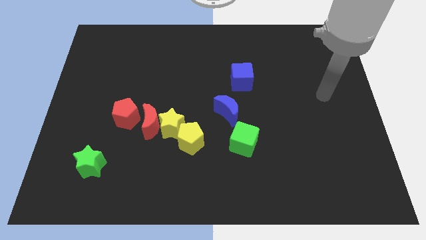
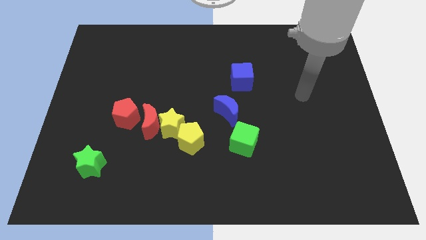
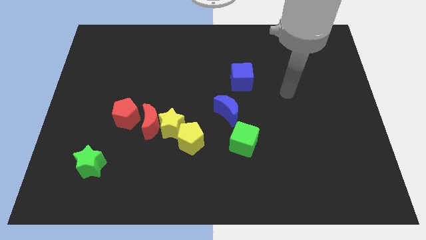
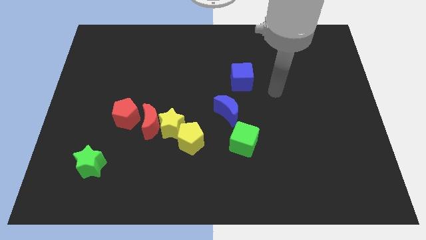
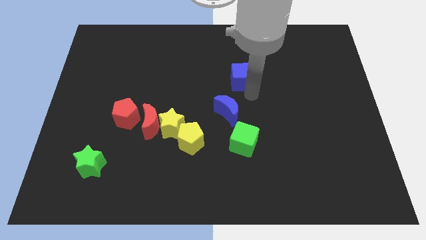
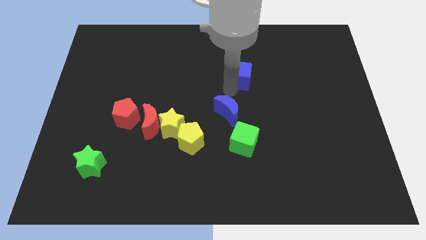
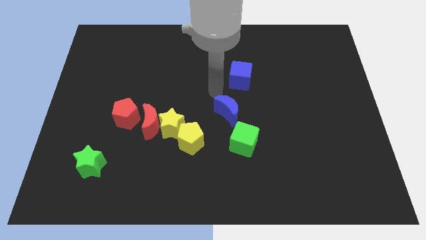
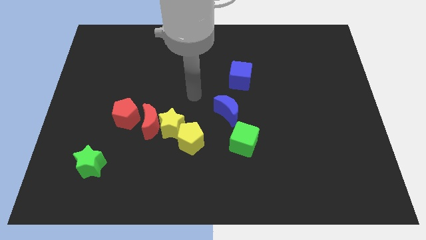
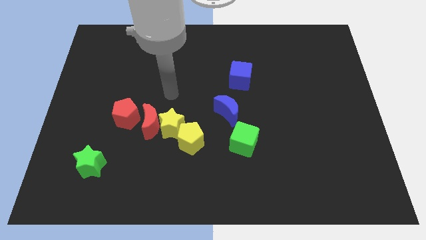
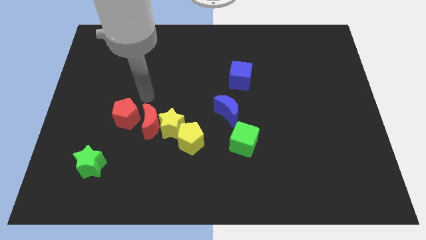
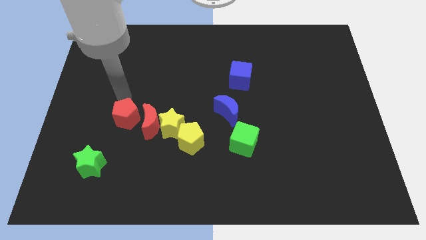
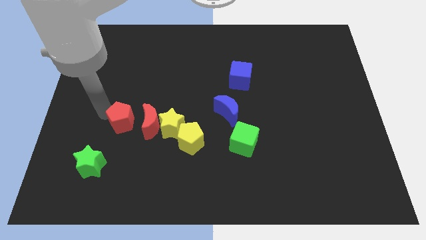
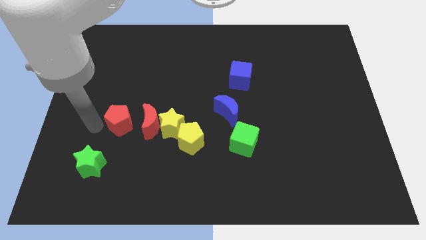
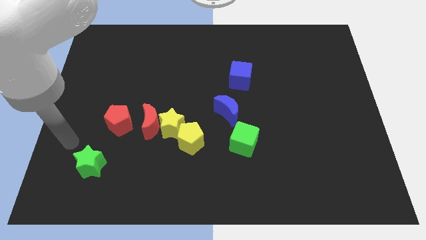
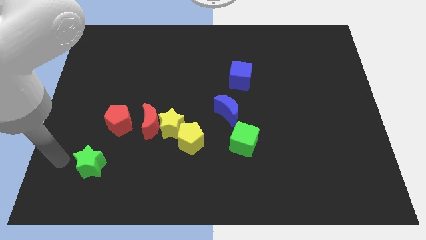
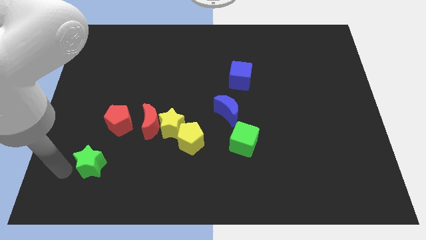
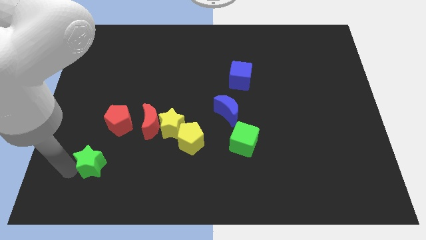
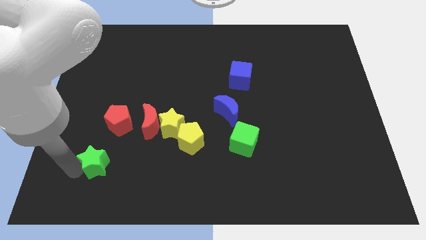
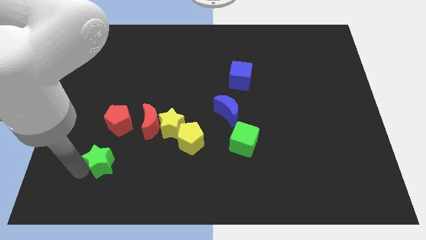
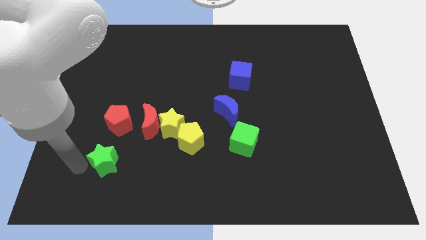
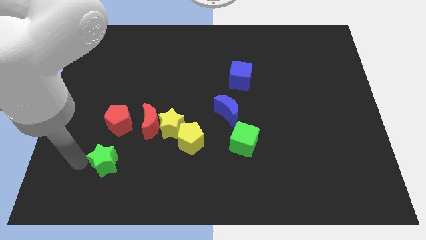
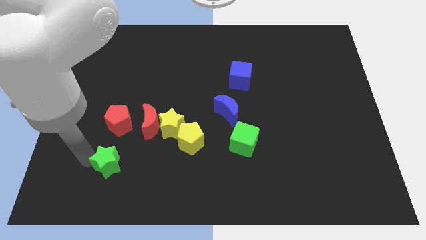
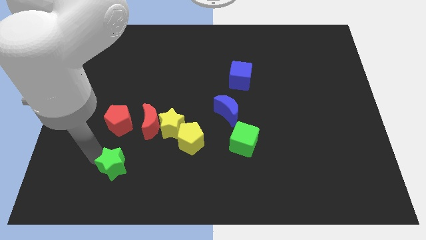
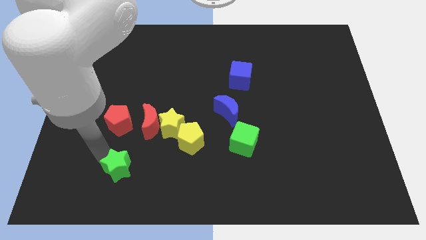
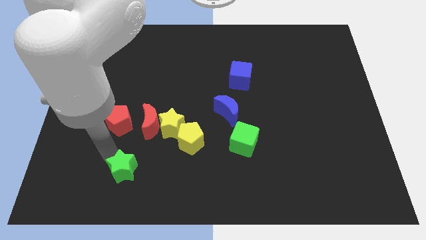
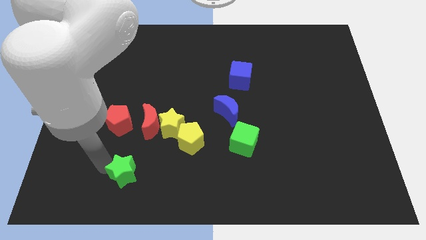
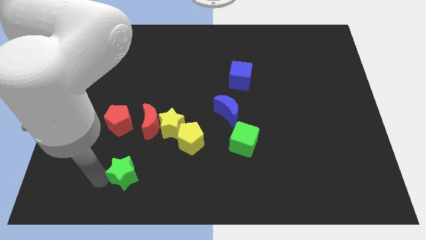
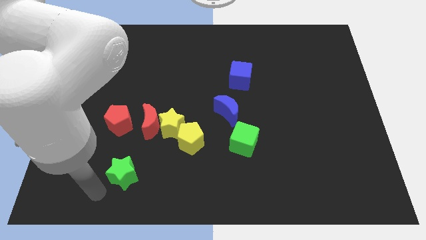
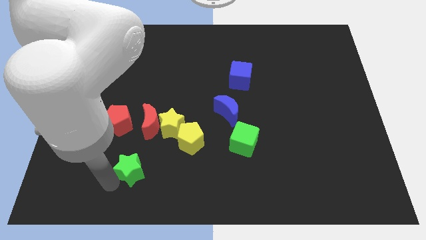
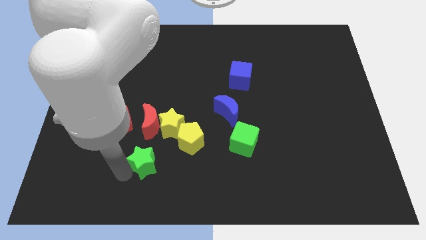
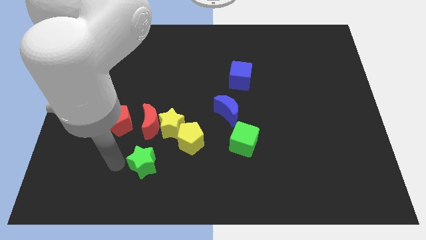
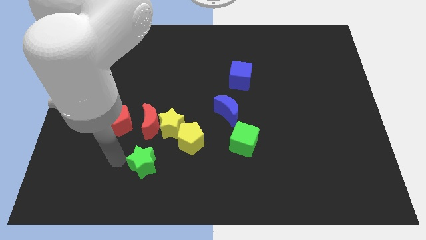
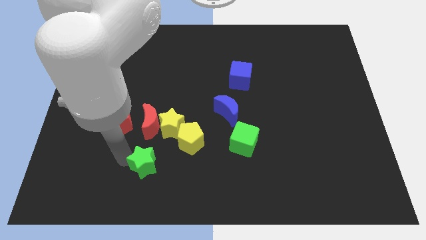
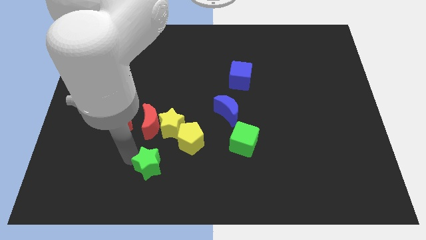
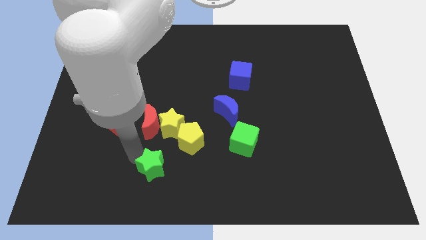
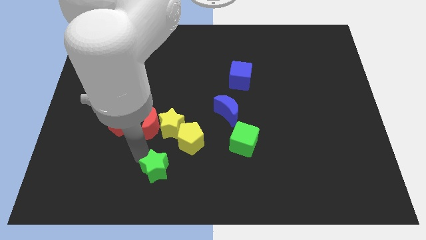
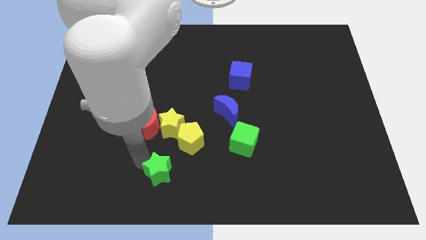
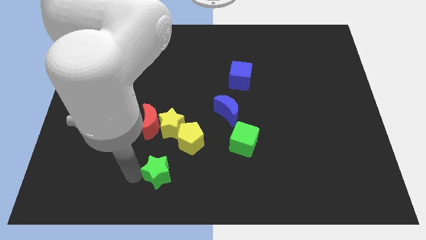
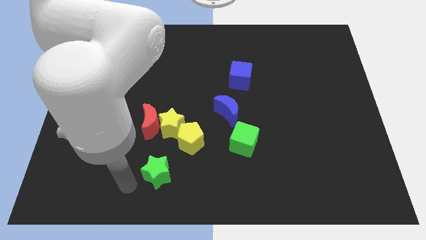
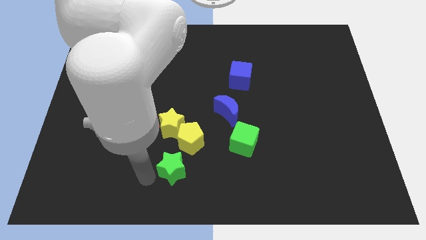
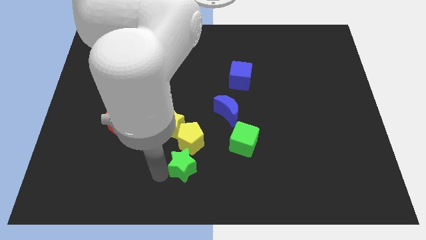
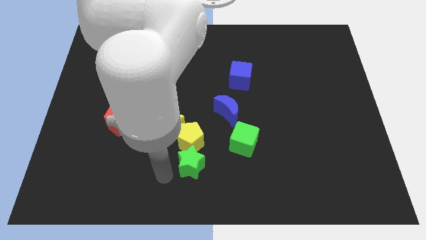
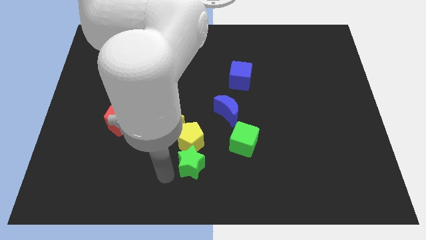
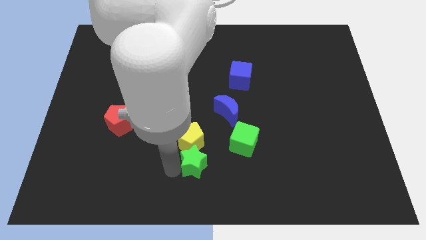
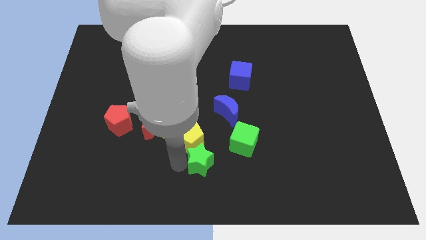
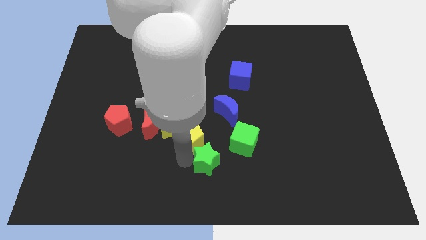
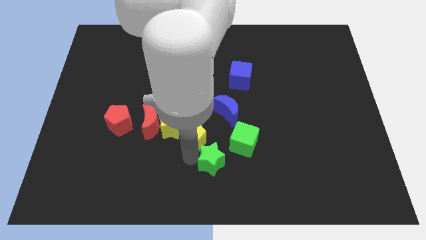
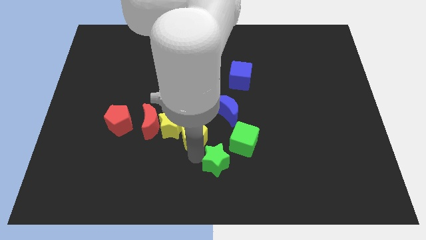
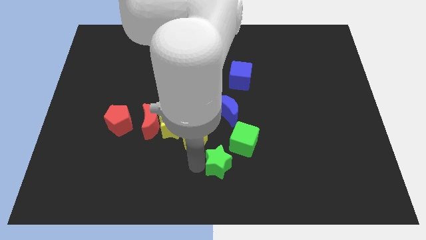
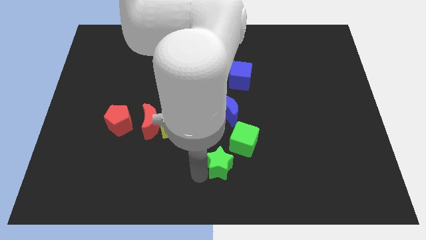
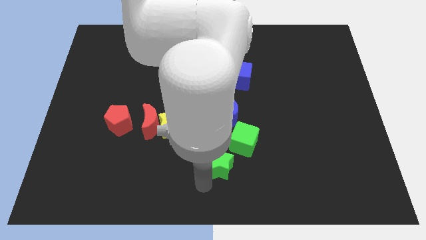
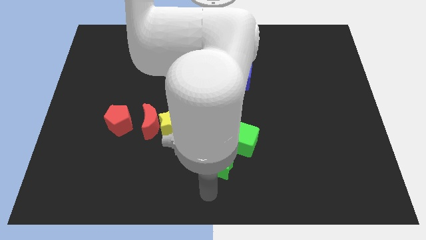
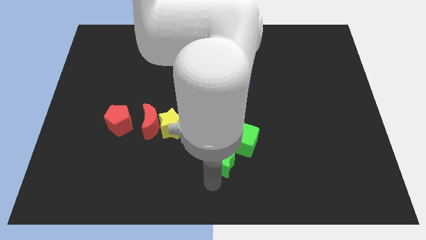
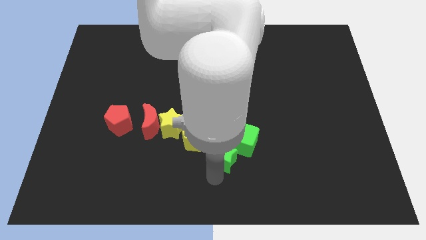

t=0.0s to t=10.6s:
move the green star next to the green cube

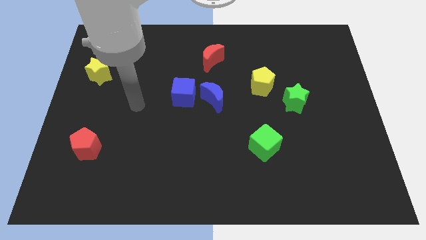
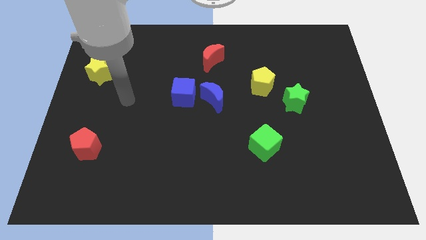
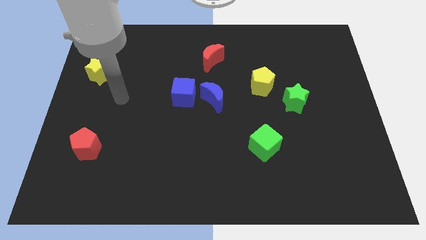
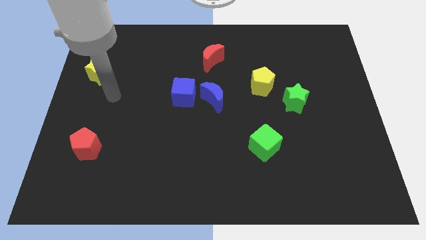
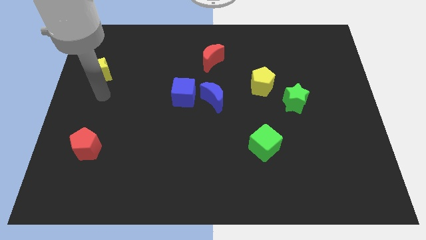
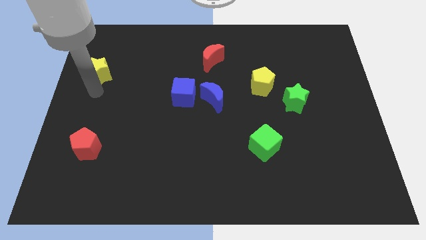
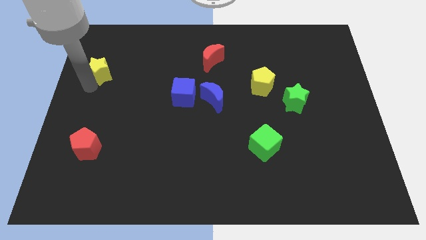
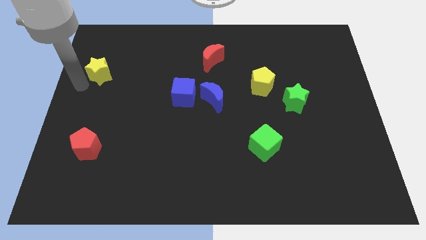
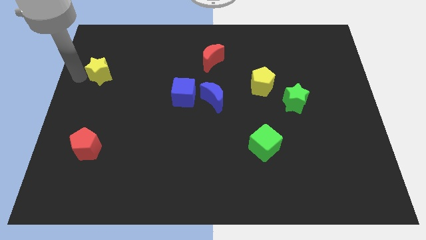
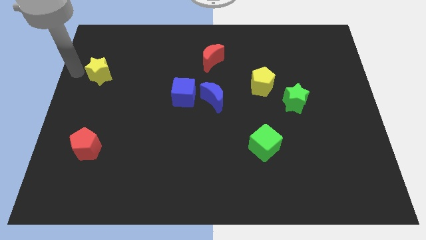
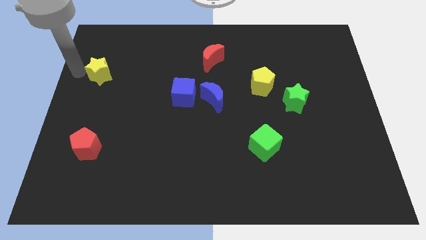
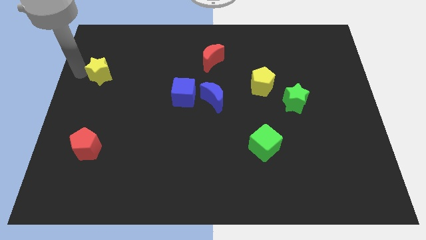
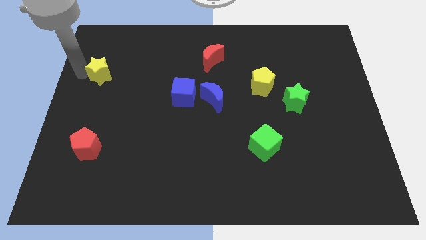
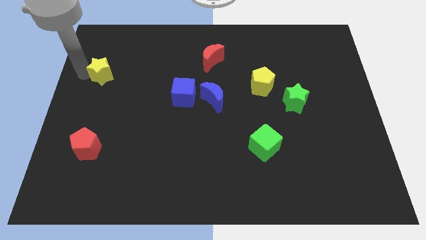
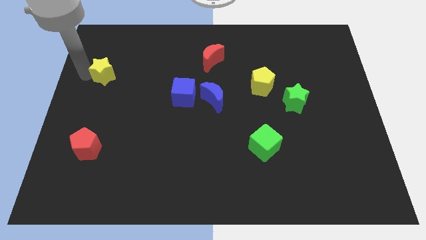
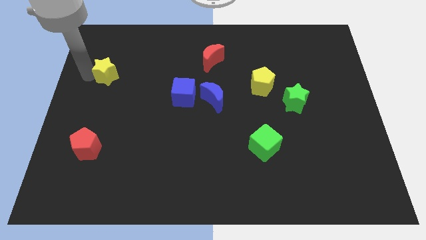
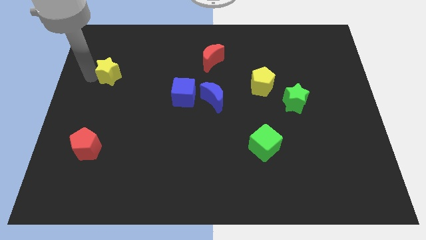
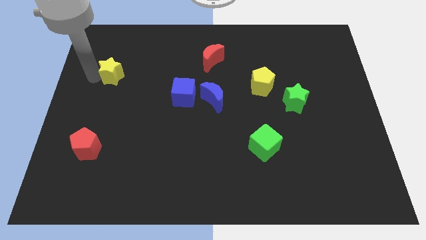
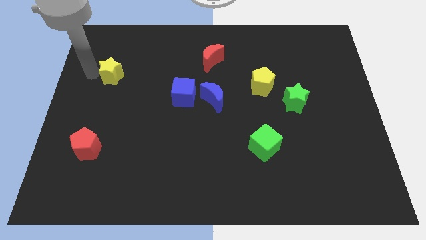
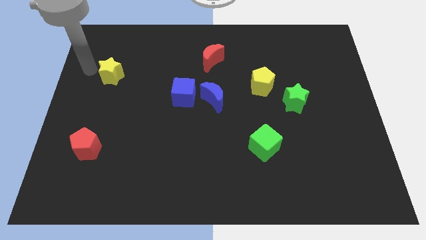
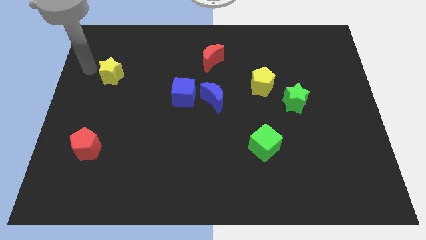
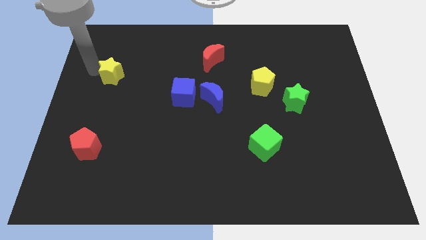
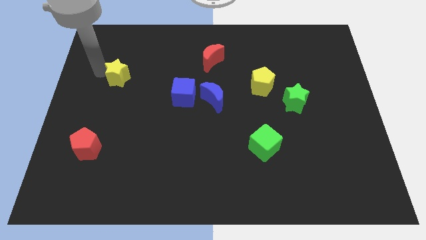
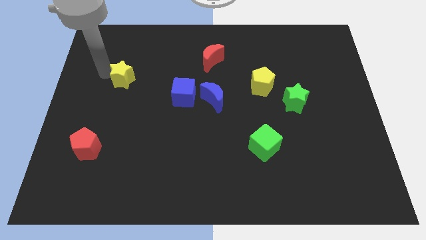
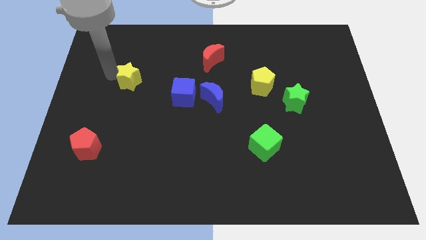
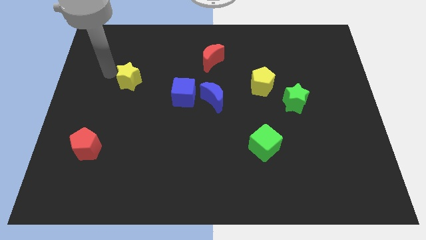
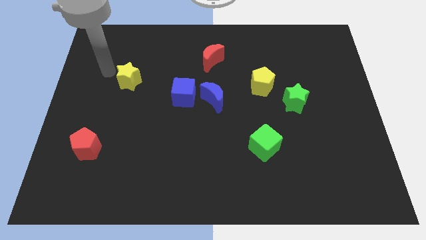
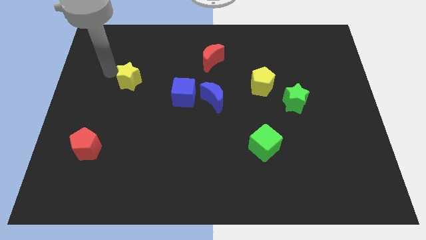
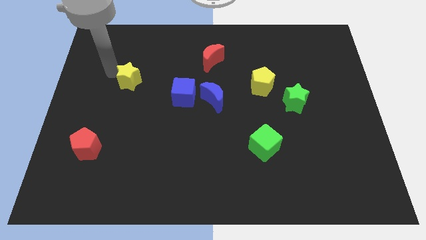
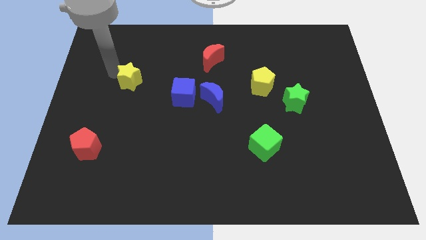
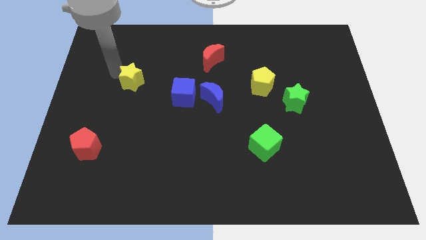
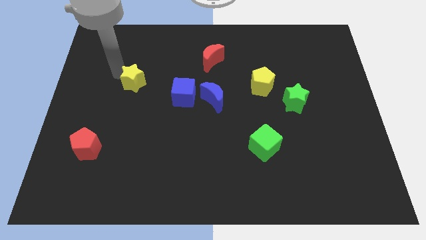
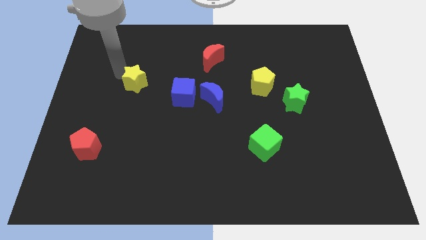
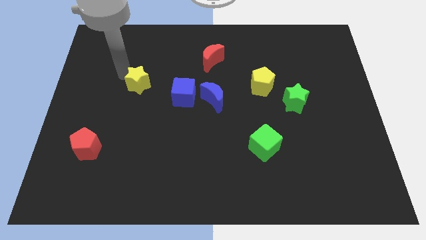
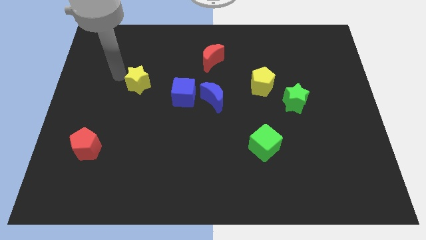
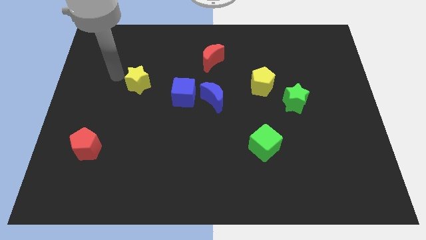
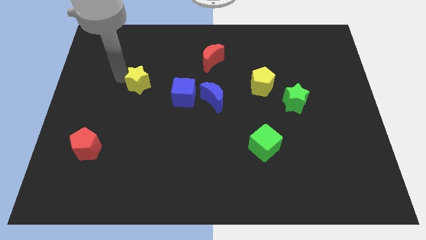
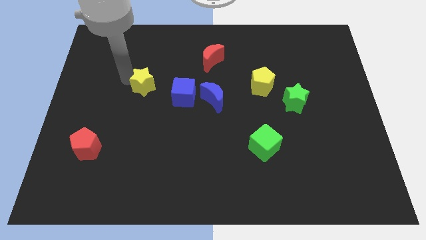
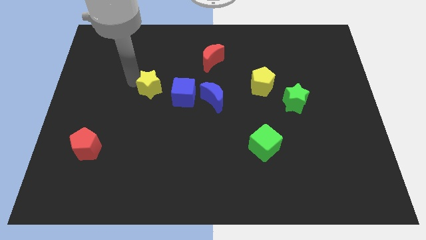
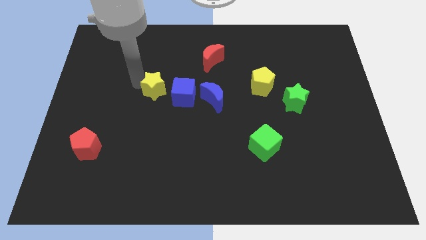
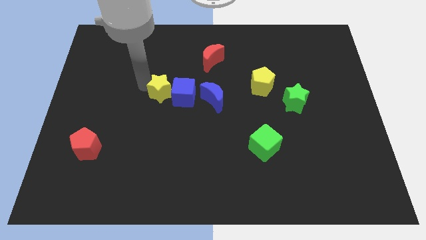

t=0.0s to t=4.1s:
push the yellow star next to the blue cube
